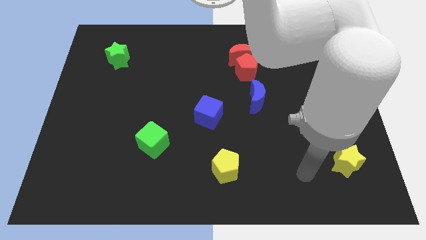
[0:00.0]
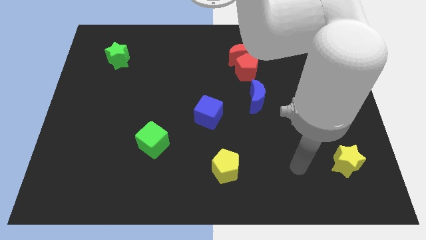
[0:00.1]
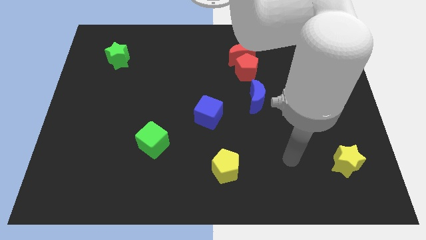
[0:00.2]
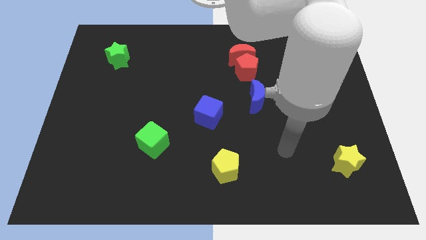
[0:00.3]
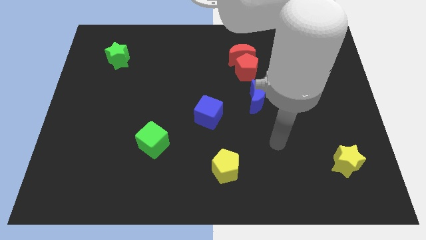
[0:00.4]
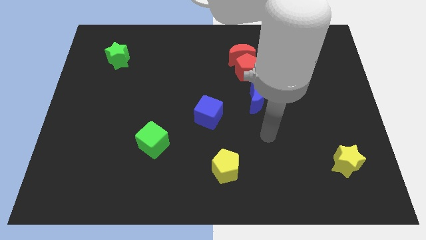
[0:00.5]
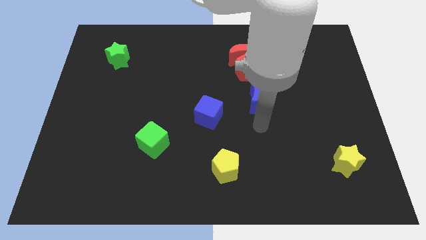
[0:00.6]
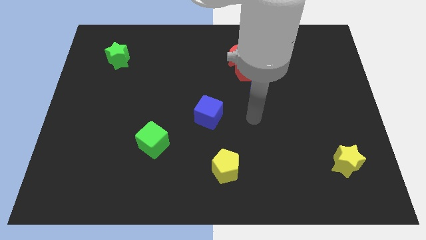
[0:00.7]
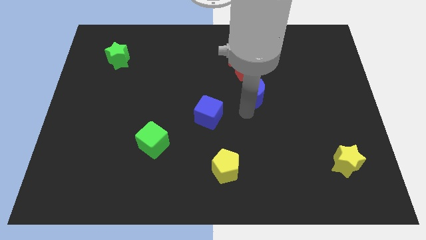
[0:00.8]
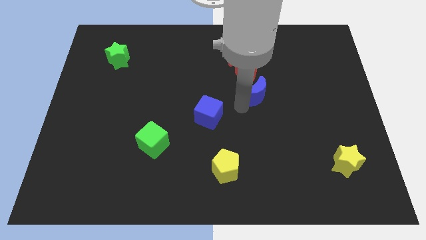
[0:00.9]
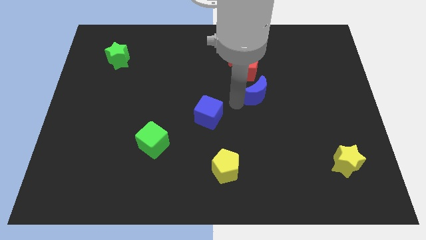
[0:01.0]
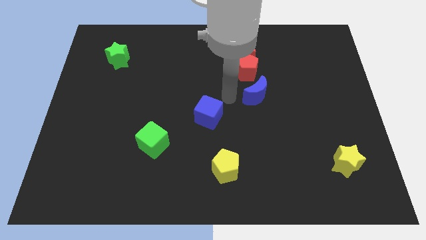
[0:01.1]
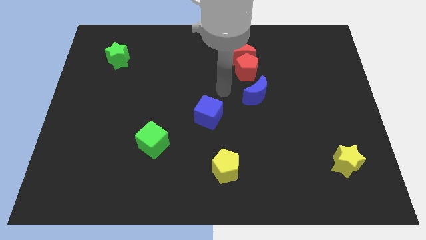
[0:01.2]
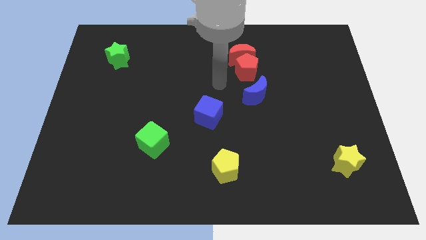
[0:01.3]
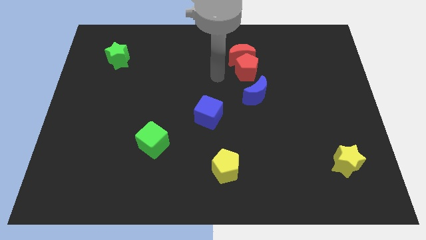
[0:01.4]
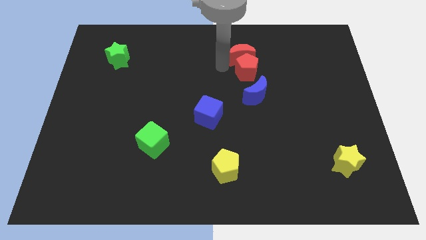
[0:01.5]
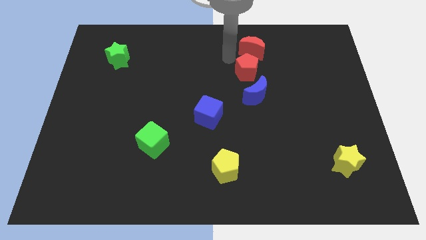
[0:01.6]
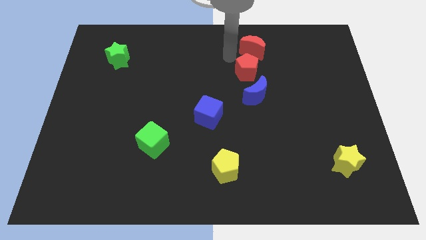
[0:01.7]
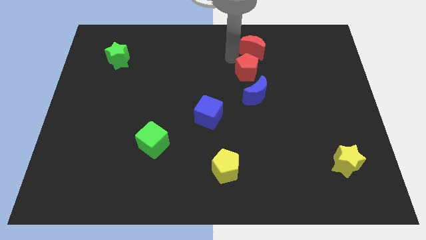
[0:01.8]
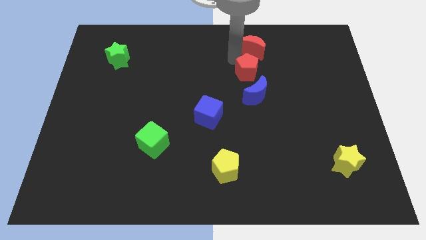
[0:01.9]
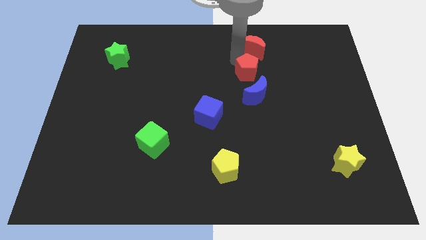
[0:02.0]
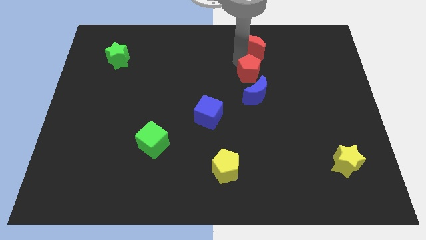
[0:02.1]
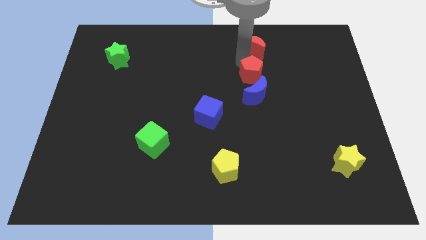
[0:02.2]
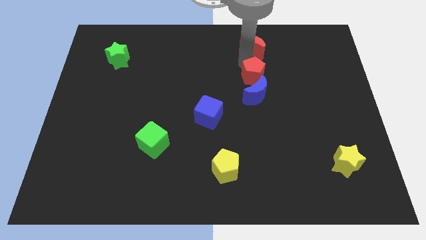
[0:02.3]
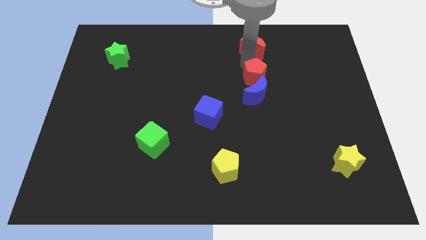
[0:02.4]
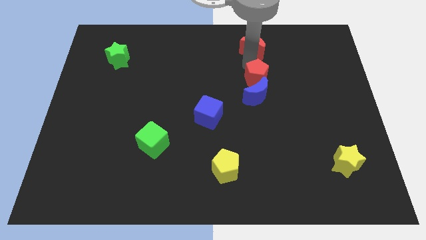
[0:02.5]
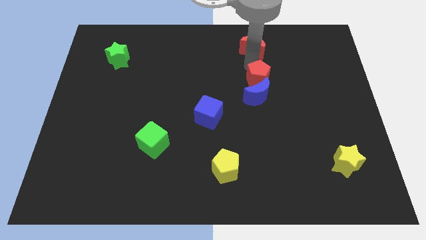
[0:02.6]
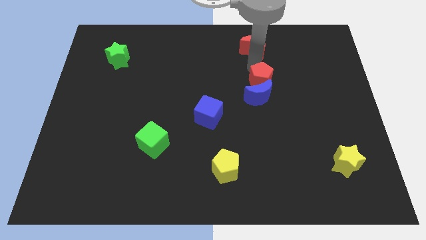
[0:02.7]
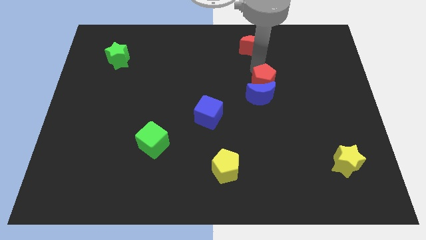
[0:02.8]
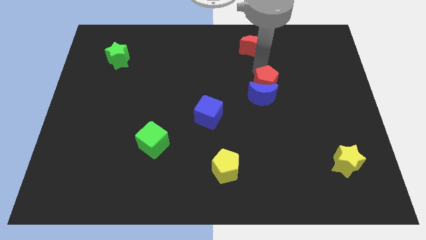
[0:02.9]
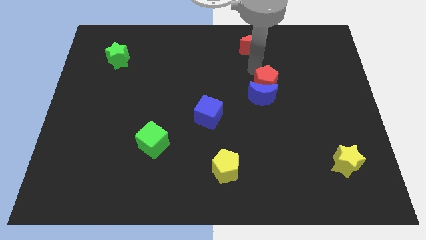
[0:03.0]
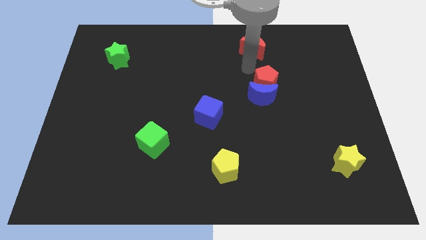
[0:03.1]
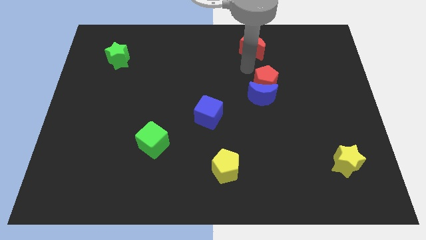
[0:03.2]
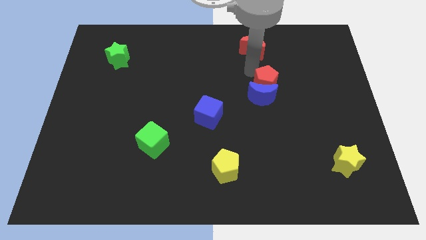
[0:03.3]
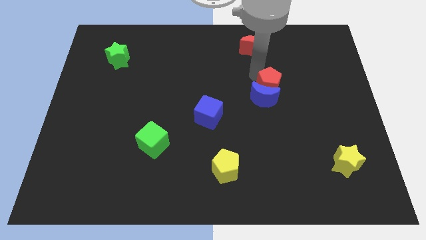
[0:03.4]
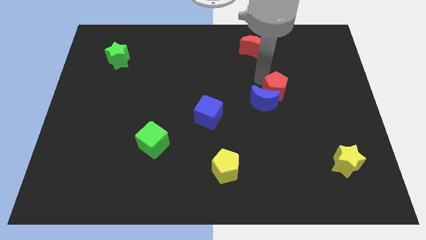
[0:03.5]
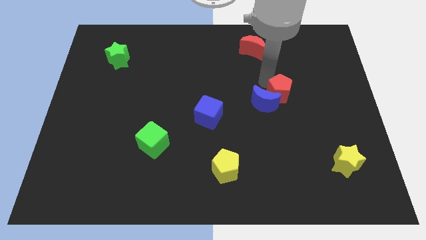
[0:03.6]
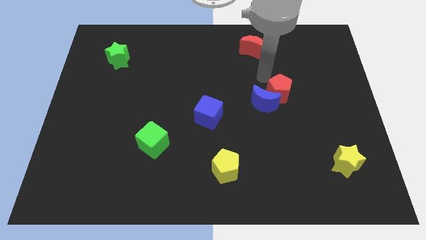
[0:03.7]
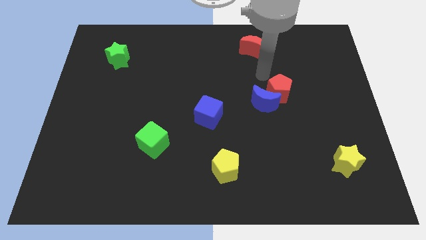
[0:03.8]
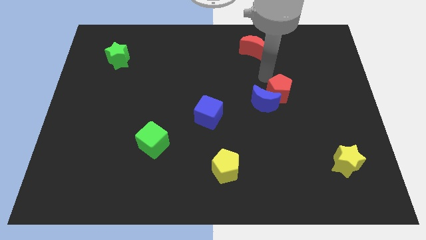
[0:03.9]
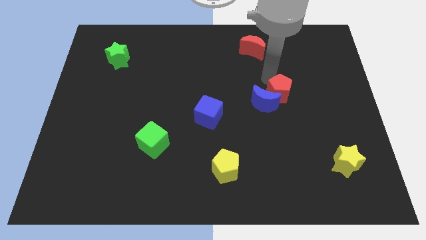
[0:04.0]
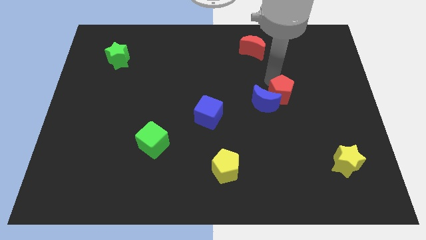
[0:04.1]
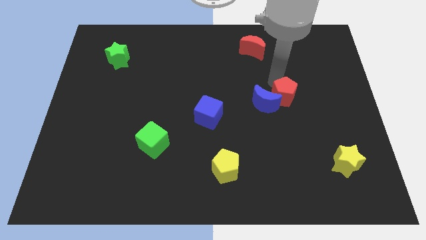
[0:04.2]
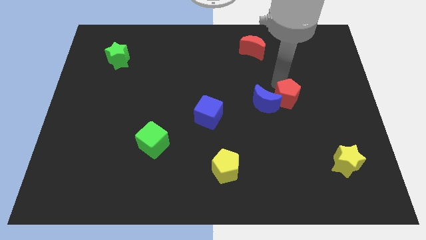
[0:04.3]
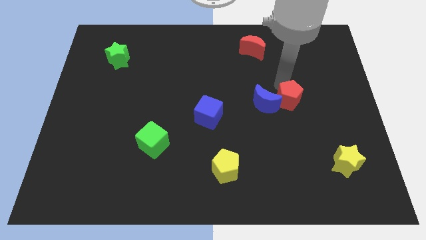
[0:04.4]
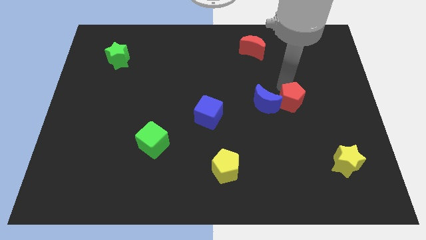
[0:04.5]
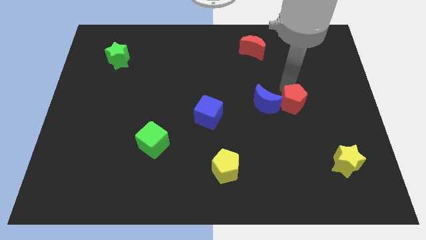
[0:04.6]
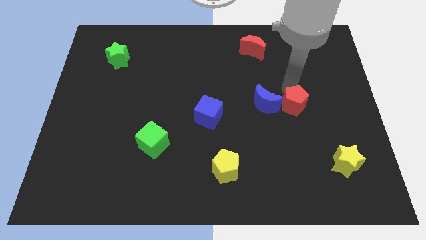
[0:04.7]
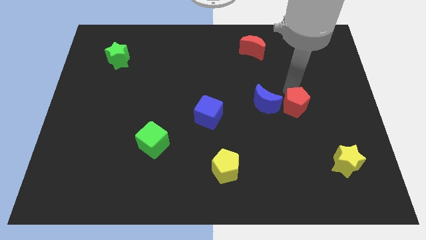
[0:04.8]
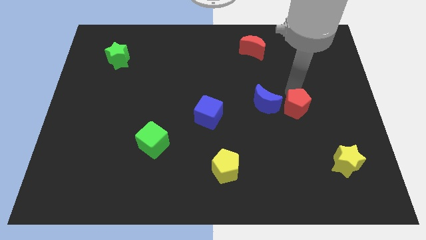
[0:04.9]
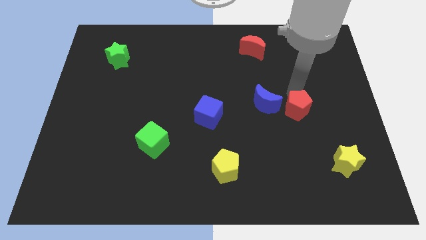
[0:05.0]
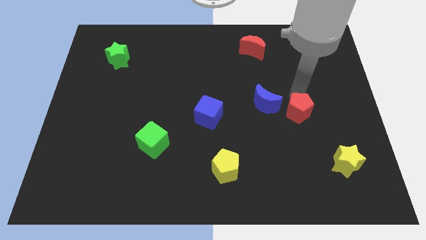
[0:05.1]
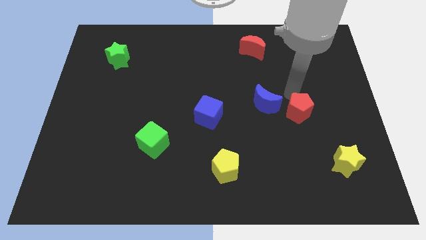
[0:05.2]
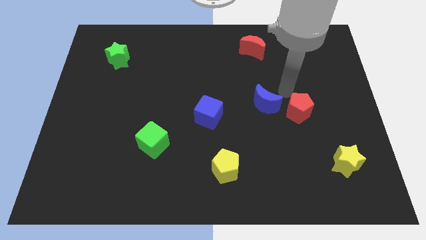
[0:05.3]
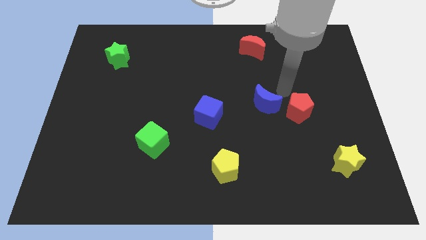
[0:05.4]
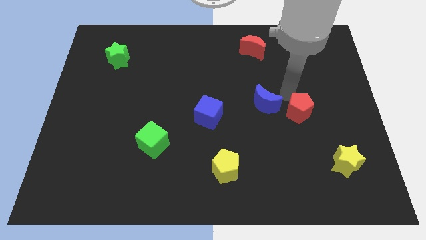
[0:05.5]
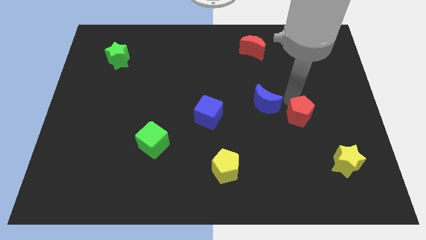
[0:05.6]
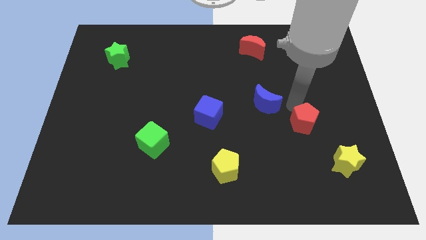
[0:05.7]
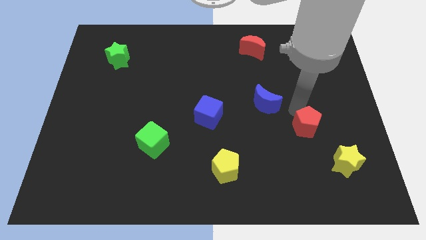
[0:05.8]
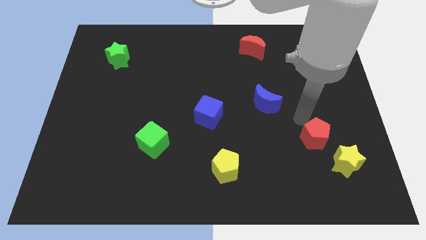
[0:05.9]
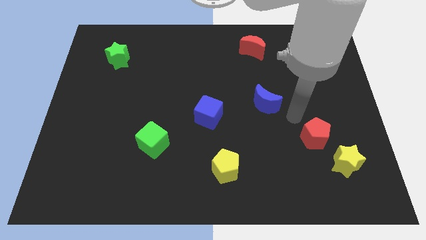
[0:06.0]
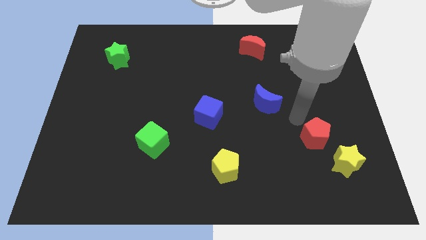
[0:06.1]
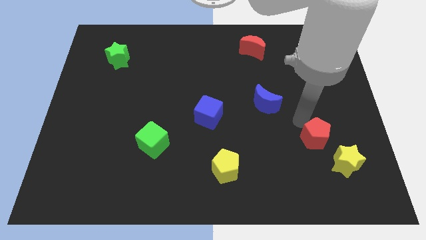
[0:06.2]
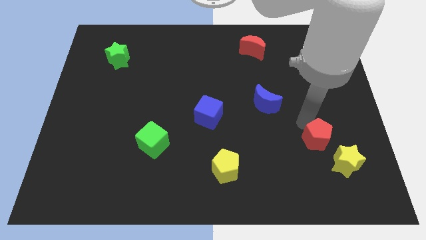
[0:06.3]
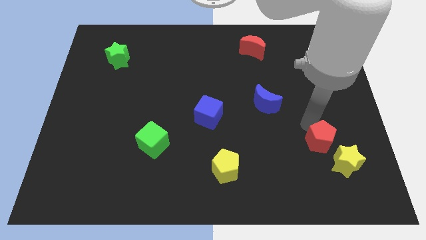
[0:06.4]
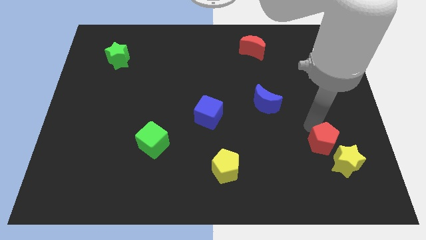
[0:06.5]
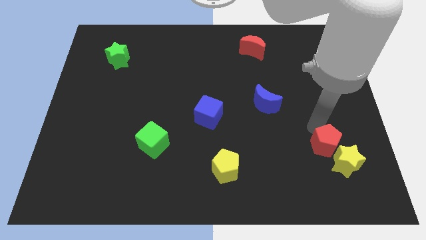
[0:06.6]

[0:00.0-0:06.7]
move the red pentagon towards the yellow star
